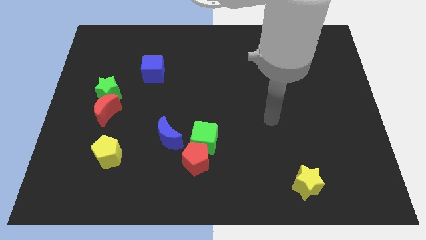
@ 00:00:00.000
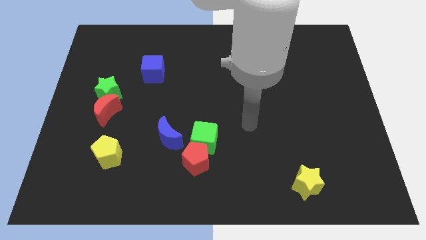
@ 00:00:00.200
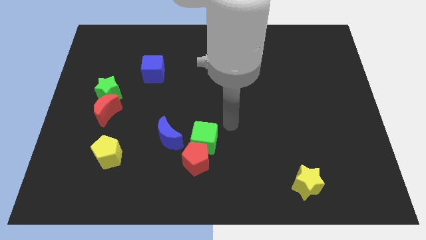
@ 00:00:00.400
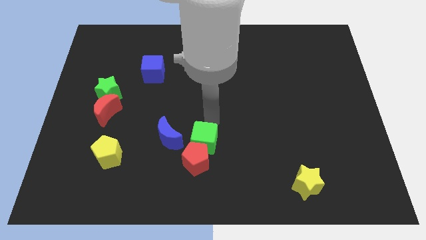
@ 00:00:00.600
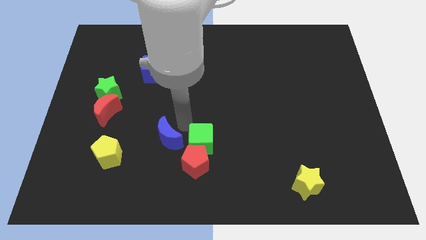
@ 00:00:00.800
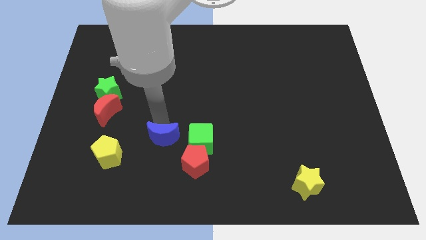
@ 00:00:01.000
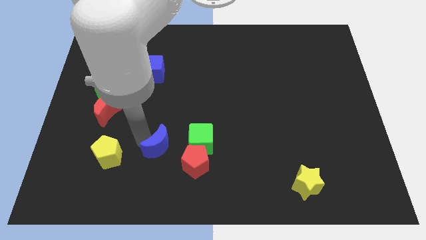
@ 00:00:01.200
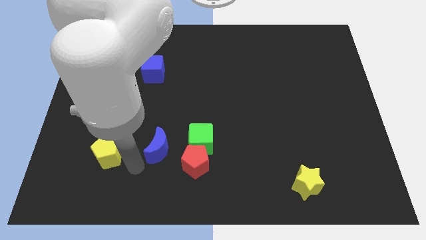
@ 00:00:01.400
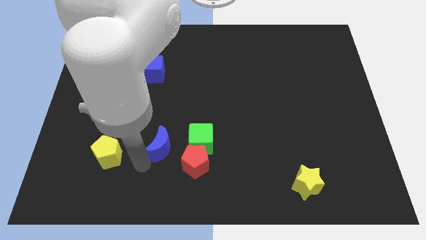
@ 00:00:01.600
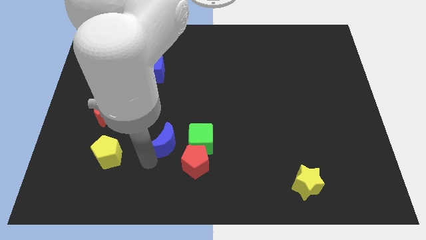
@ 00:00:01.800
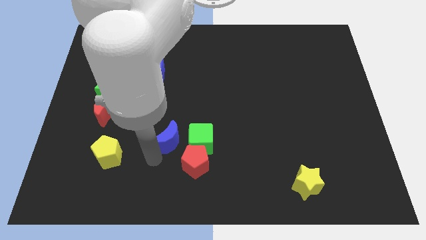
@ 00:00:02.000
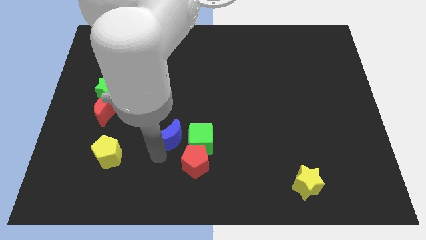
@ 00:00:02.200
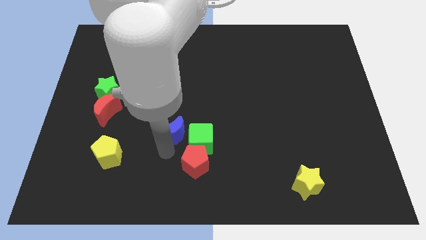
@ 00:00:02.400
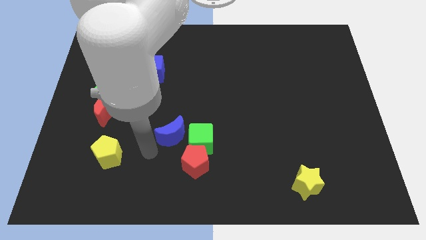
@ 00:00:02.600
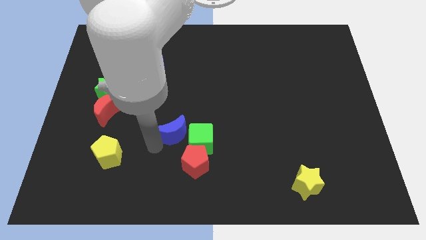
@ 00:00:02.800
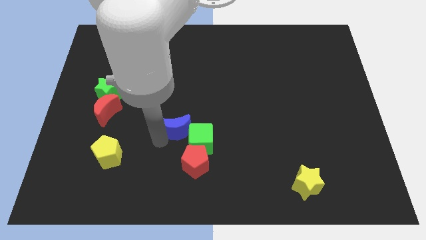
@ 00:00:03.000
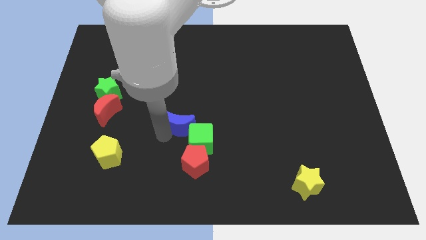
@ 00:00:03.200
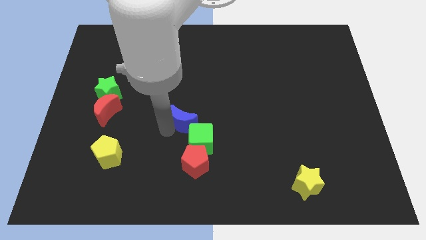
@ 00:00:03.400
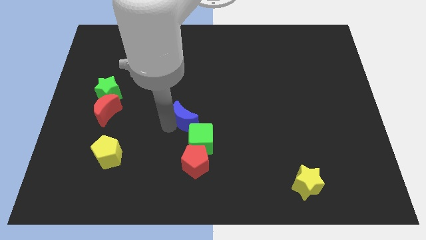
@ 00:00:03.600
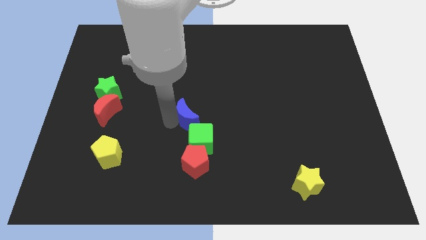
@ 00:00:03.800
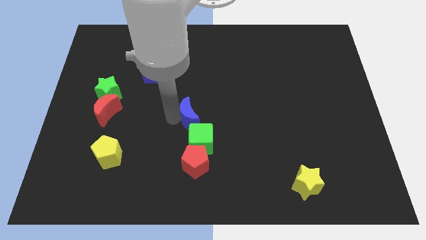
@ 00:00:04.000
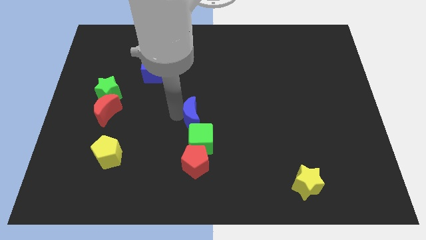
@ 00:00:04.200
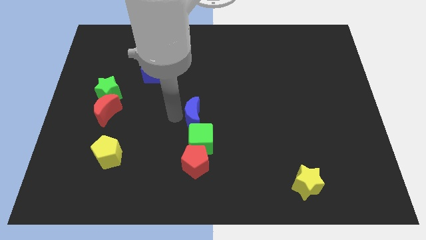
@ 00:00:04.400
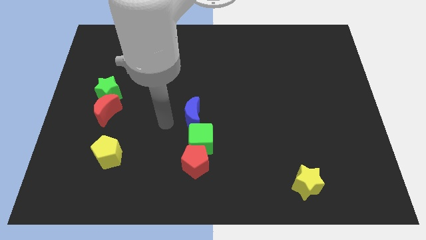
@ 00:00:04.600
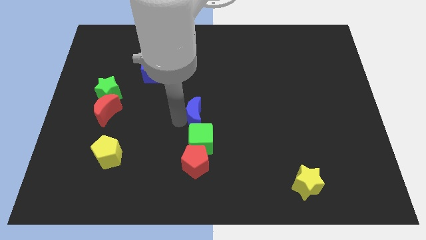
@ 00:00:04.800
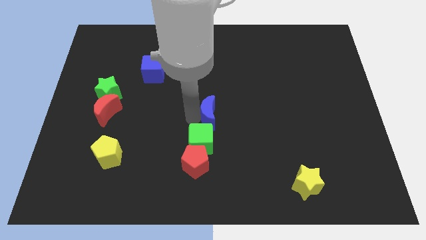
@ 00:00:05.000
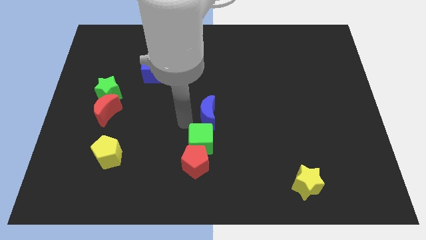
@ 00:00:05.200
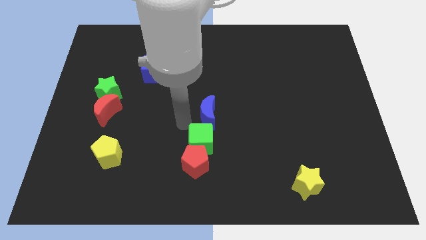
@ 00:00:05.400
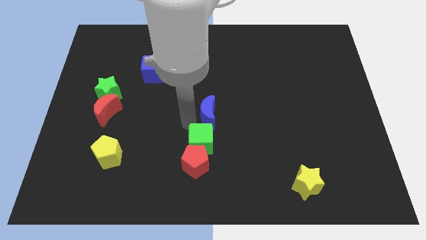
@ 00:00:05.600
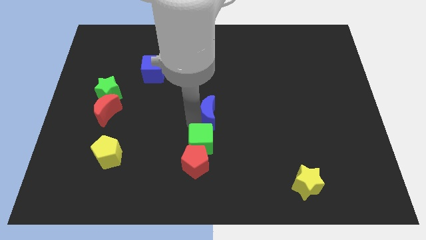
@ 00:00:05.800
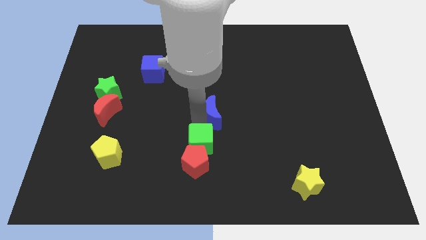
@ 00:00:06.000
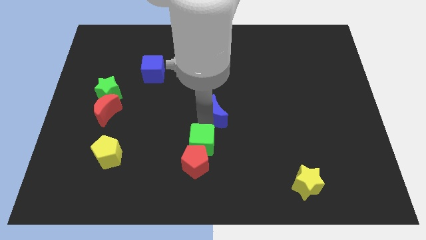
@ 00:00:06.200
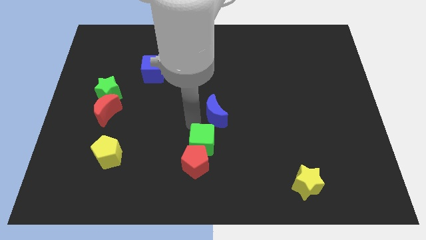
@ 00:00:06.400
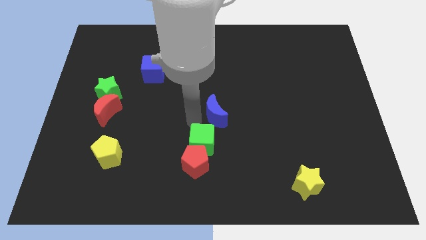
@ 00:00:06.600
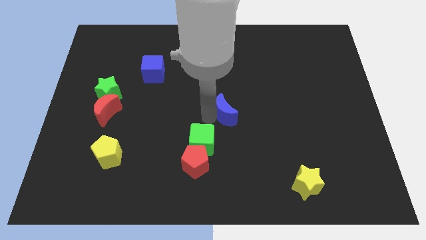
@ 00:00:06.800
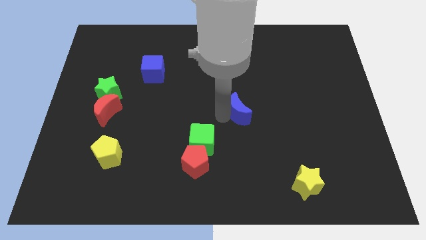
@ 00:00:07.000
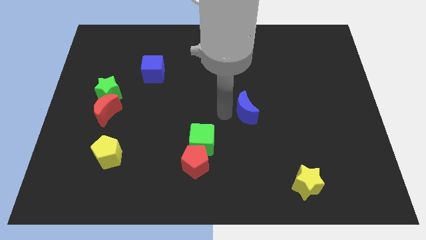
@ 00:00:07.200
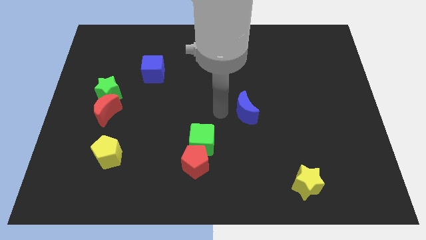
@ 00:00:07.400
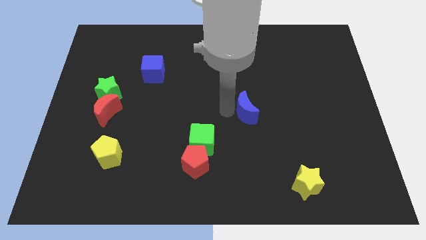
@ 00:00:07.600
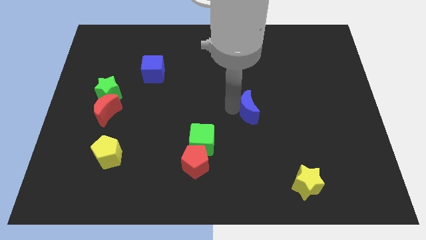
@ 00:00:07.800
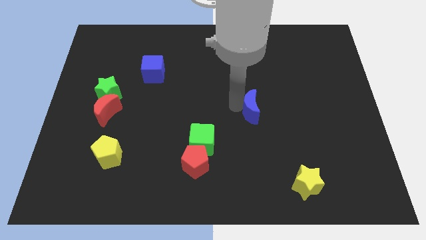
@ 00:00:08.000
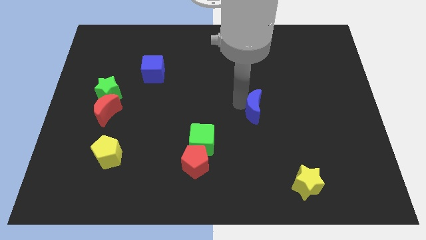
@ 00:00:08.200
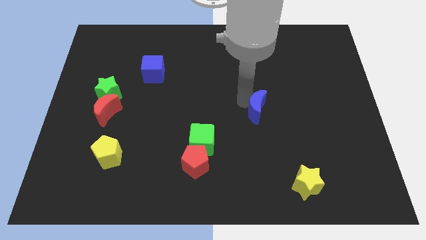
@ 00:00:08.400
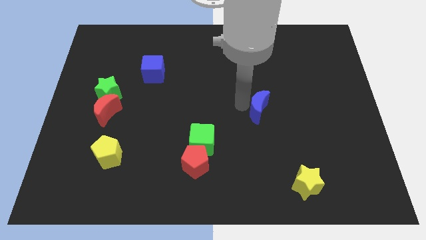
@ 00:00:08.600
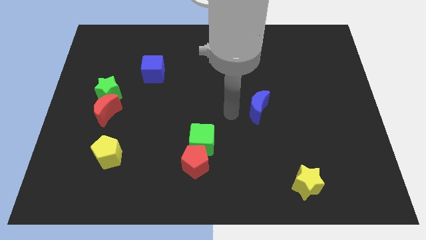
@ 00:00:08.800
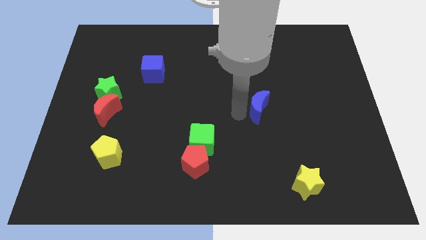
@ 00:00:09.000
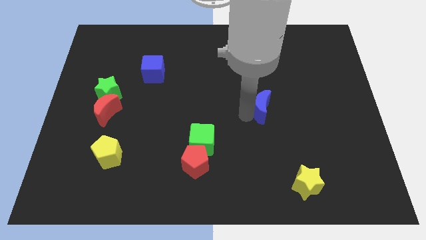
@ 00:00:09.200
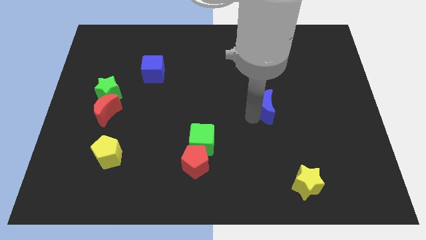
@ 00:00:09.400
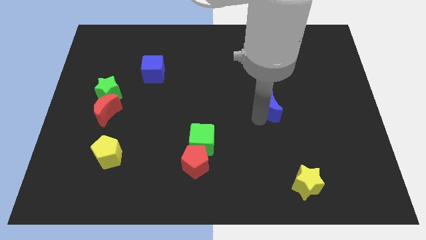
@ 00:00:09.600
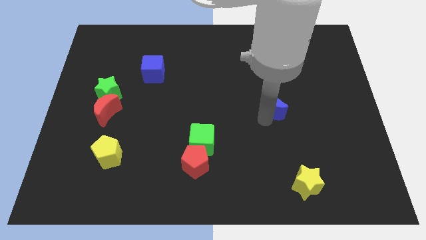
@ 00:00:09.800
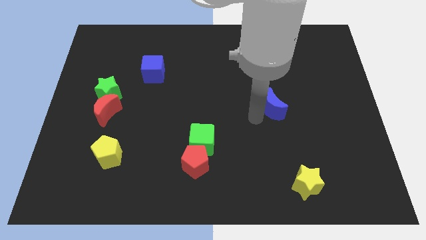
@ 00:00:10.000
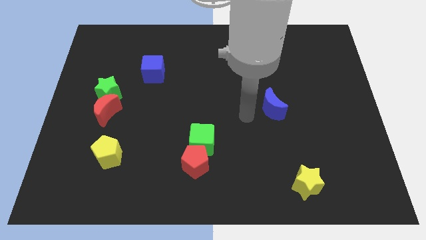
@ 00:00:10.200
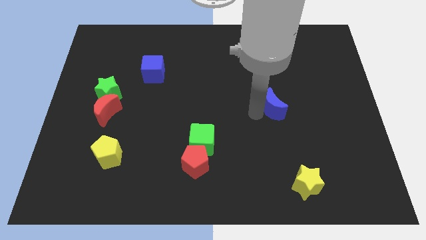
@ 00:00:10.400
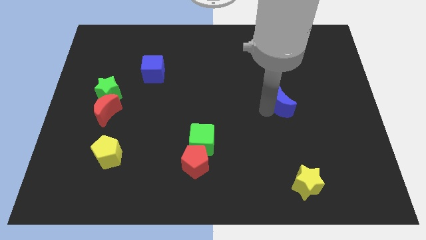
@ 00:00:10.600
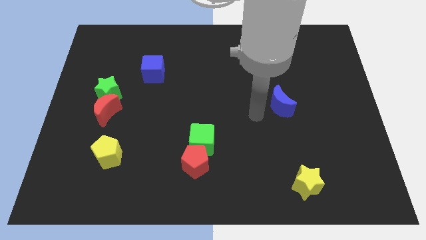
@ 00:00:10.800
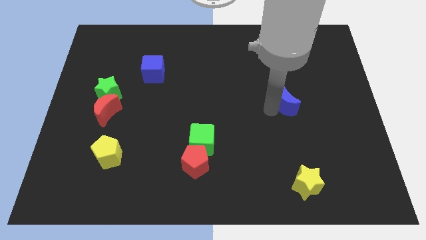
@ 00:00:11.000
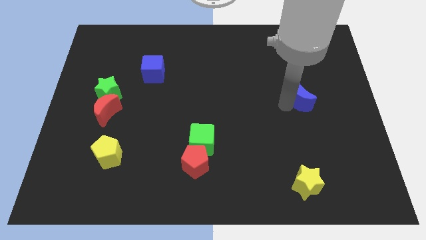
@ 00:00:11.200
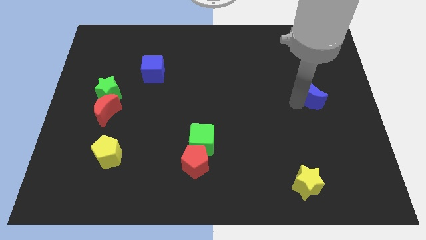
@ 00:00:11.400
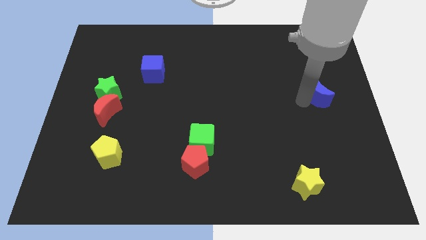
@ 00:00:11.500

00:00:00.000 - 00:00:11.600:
put the blue moon to the right side
